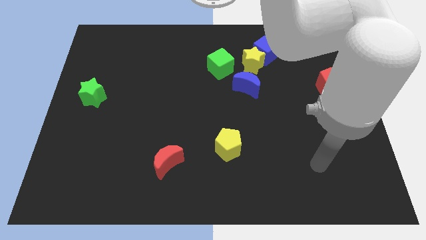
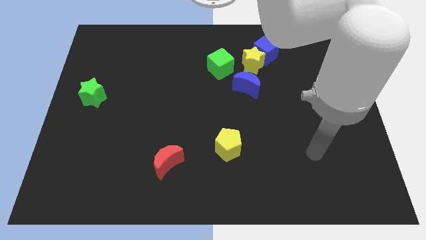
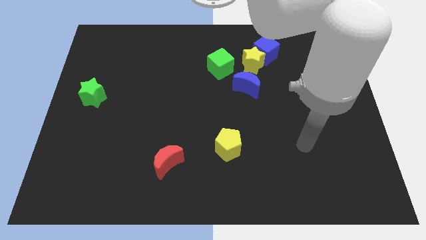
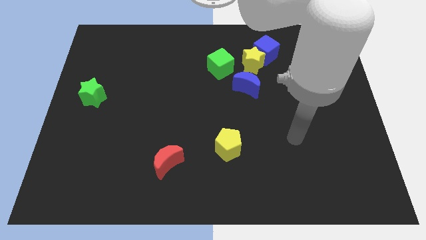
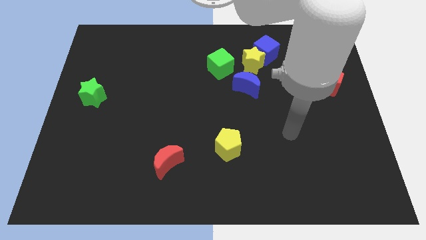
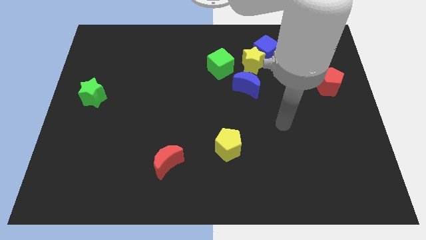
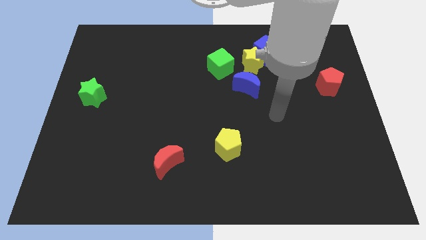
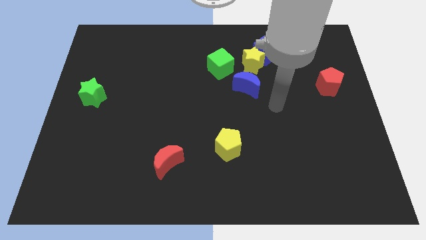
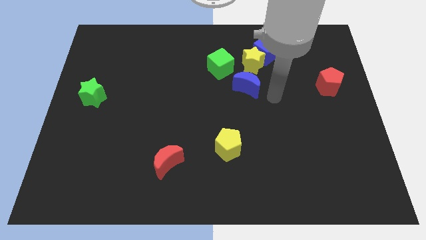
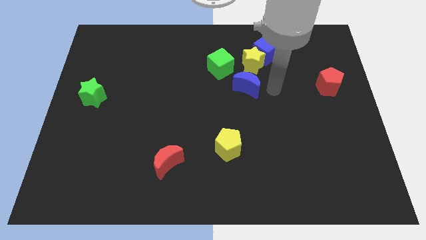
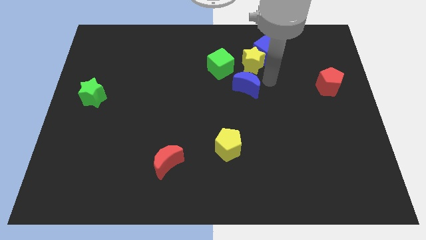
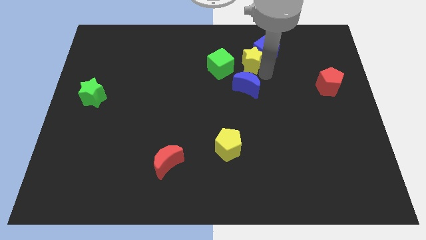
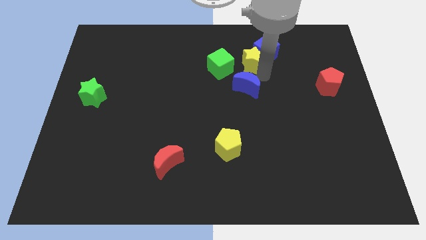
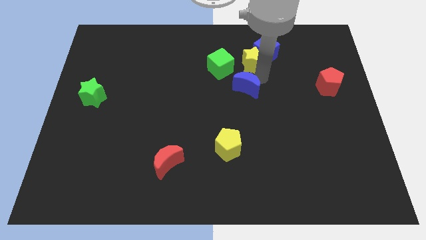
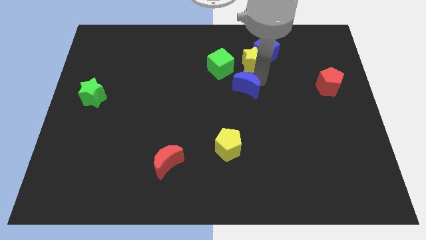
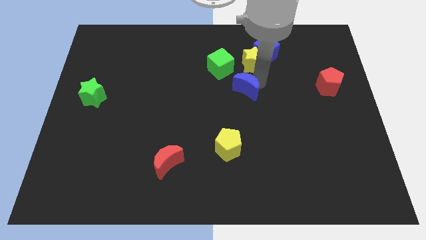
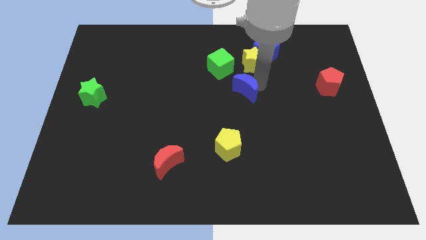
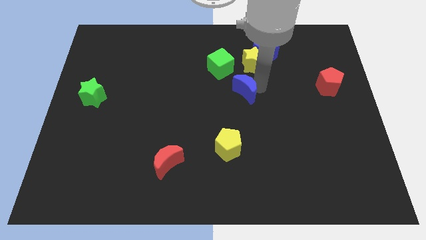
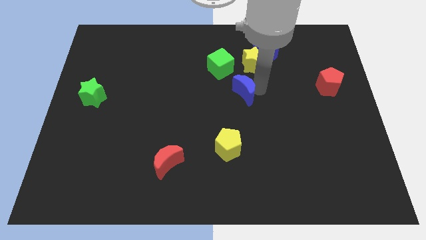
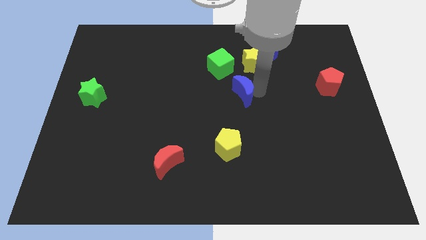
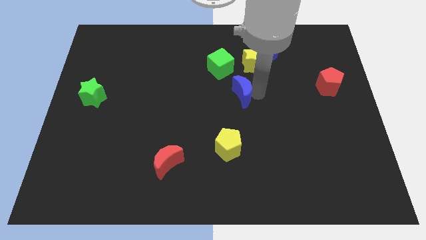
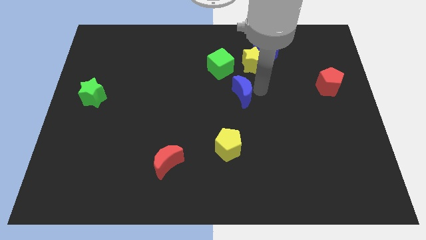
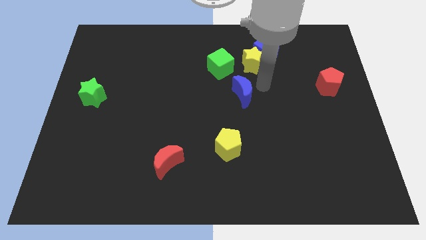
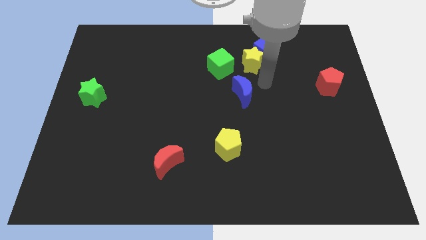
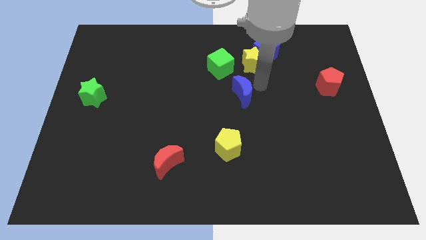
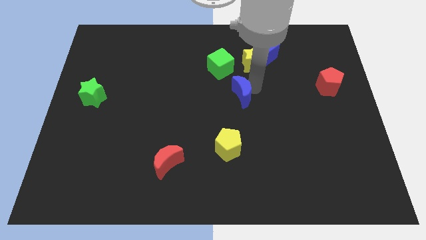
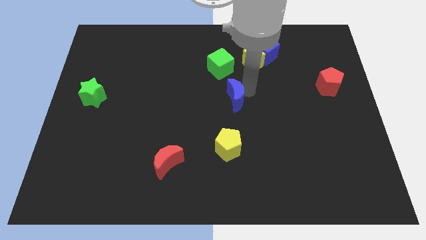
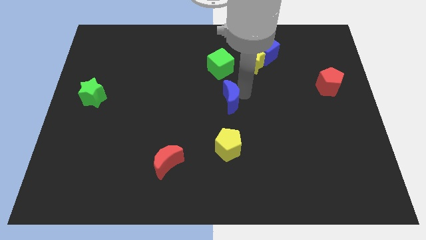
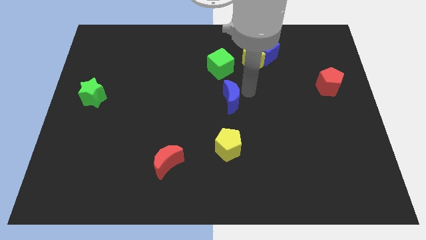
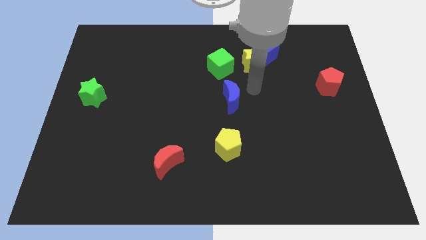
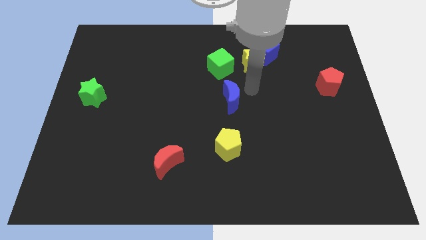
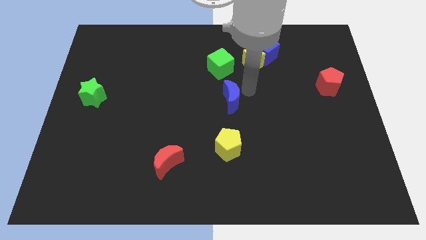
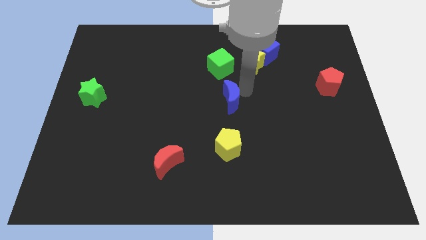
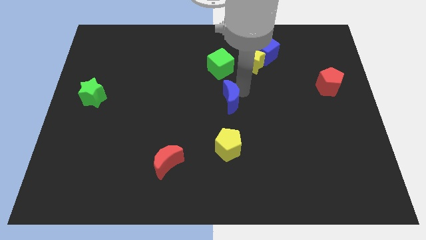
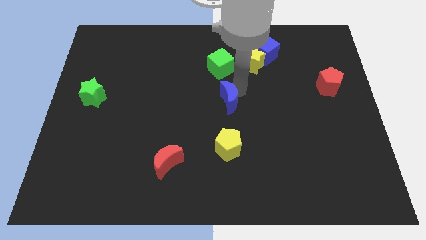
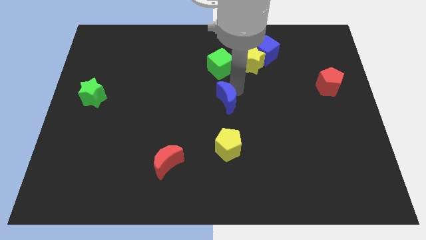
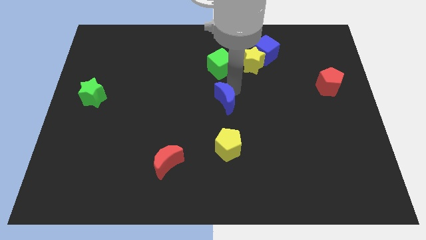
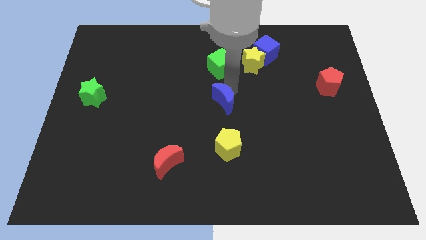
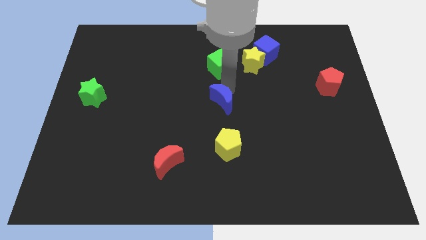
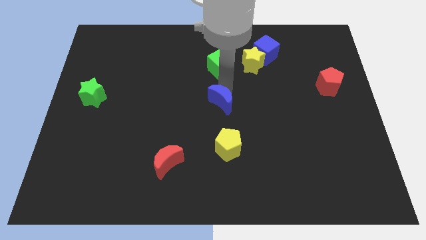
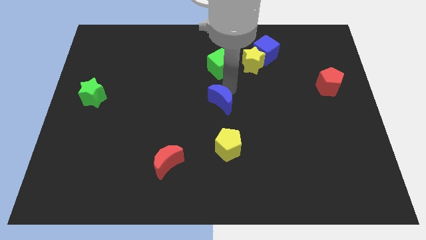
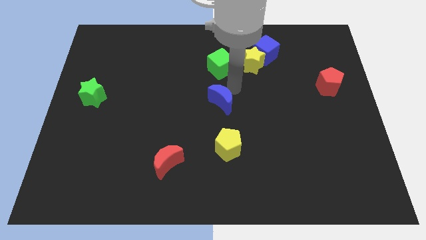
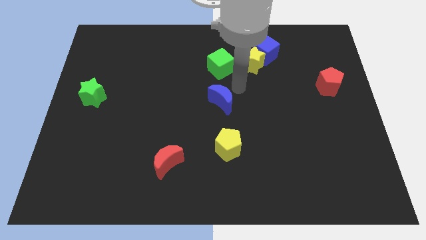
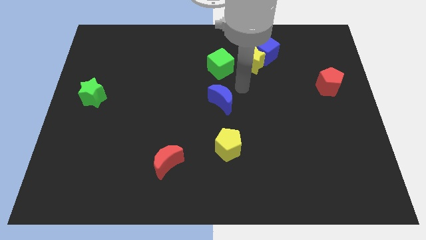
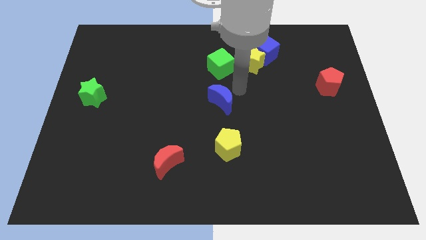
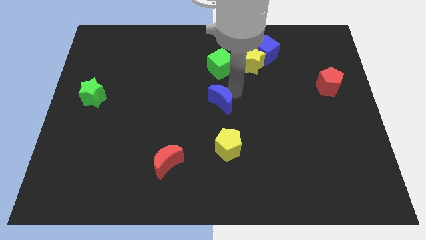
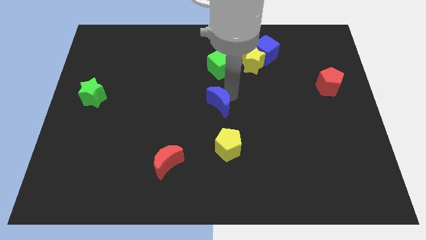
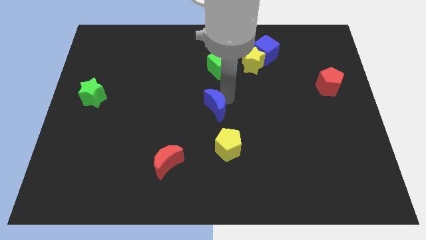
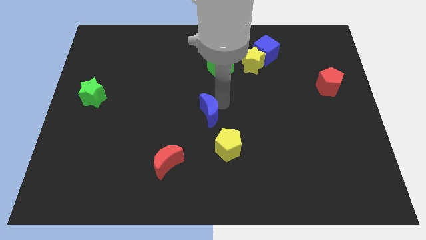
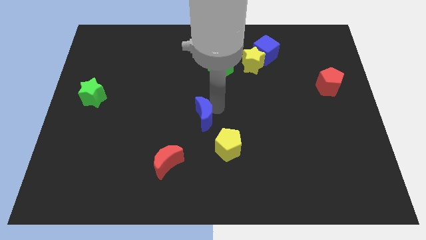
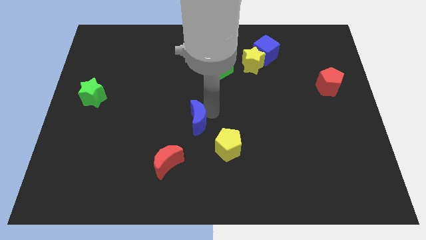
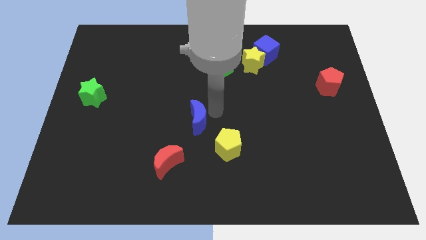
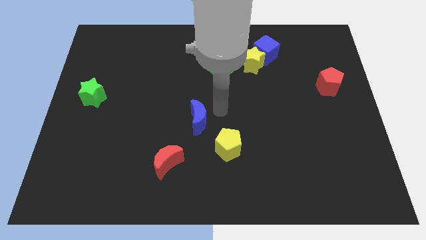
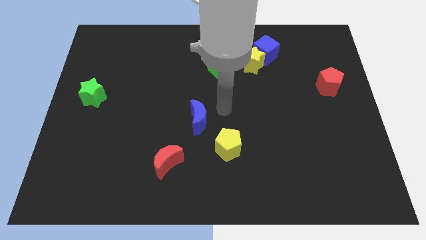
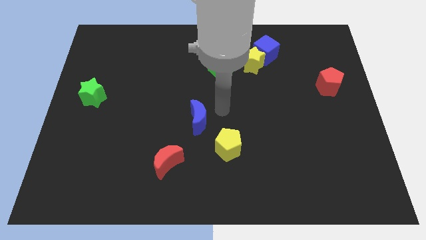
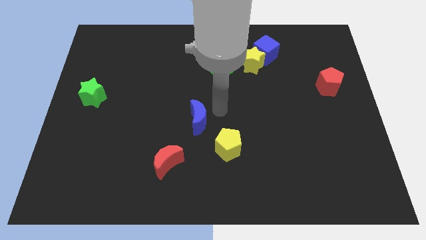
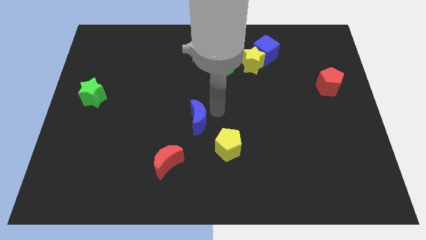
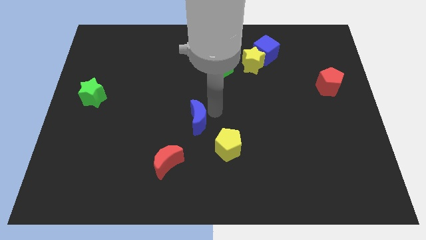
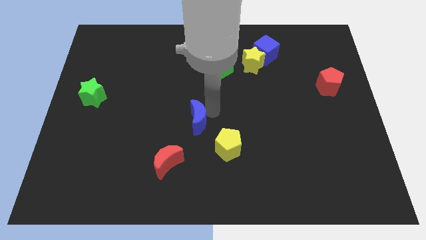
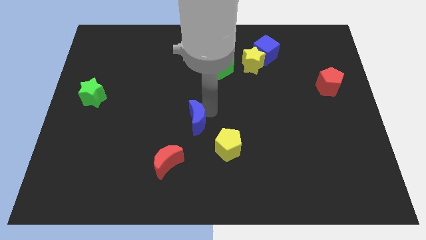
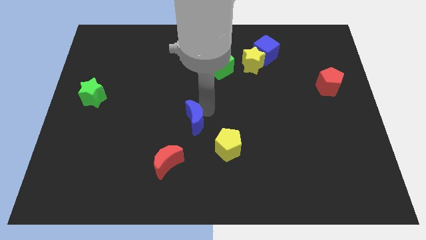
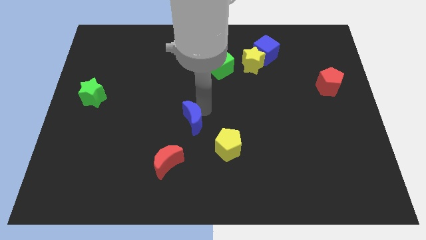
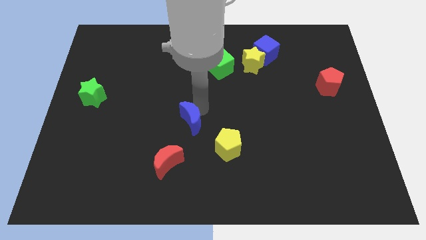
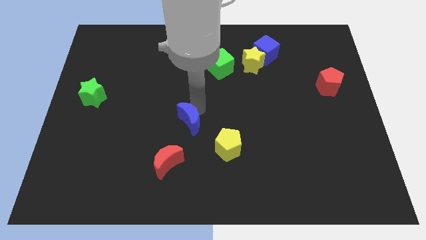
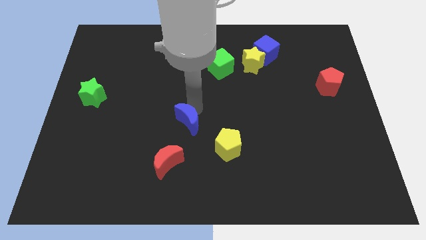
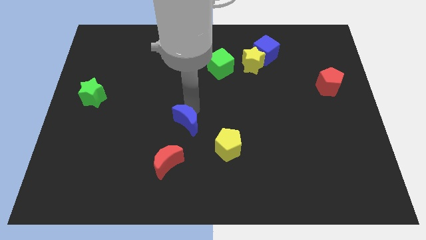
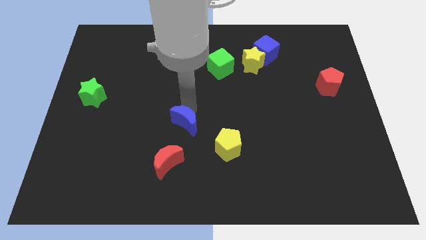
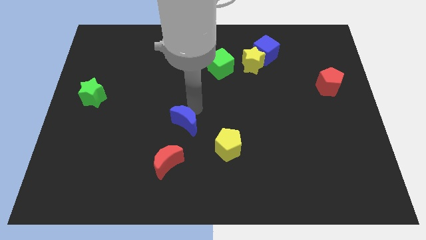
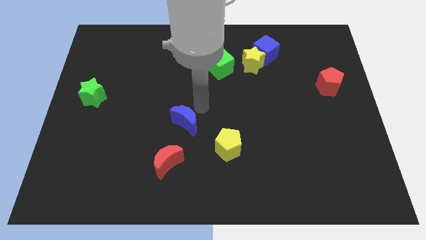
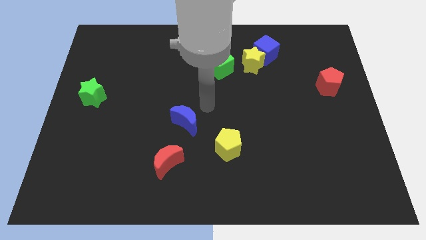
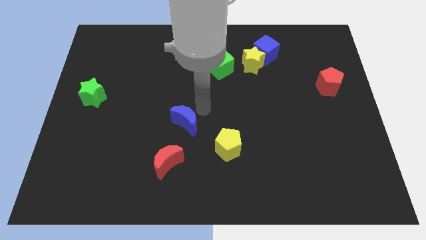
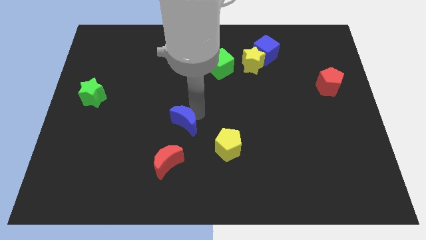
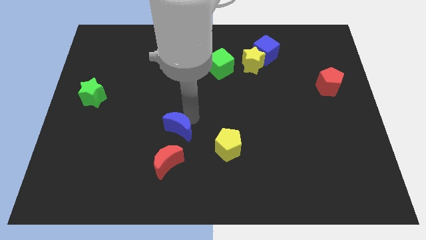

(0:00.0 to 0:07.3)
push the blue moon down and to the left diagonally

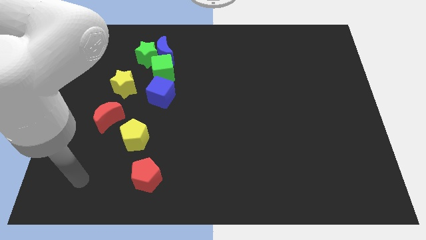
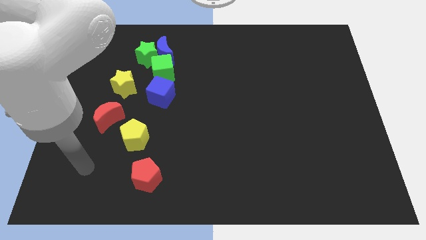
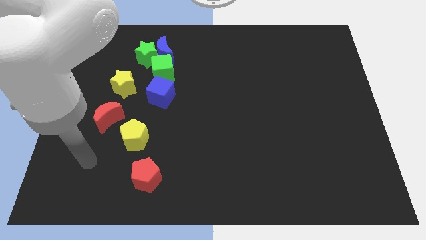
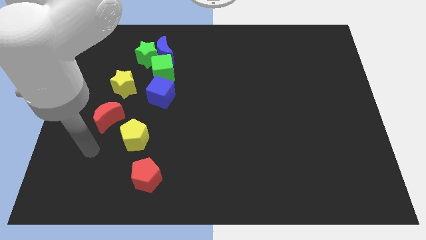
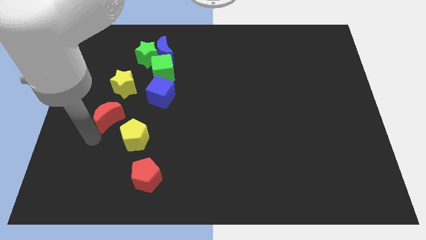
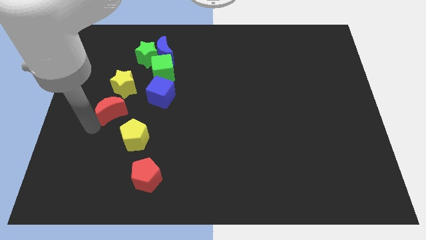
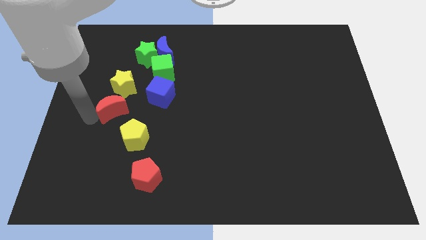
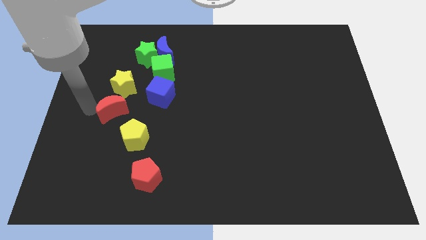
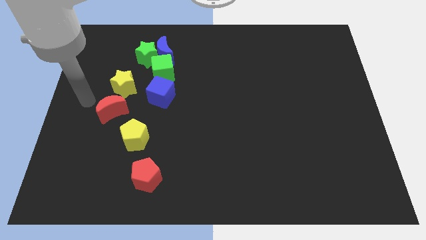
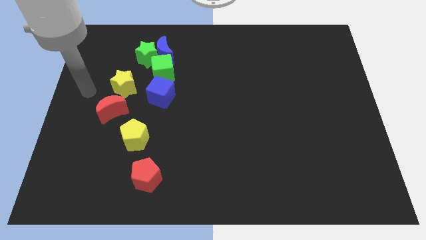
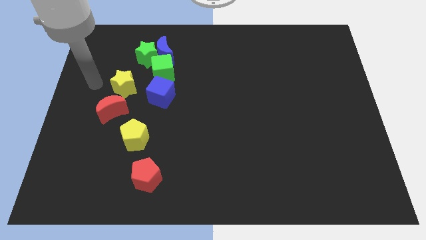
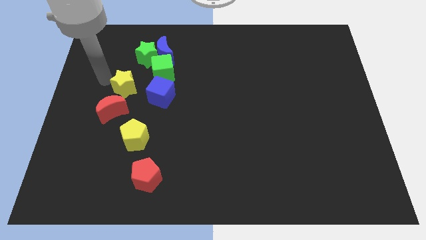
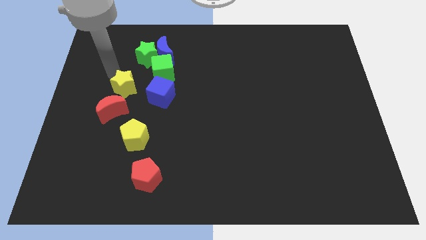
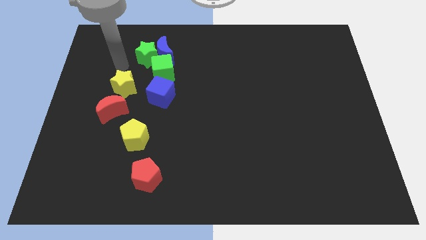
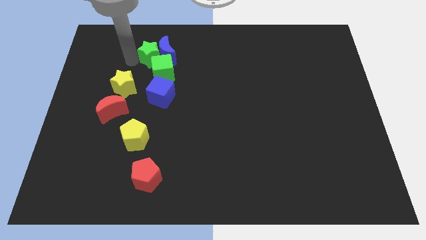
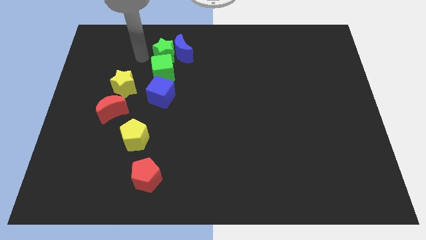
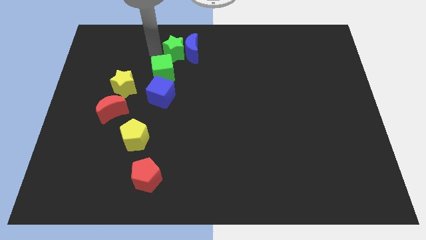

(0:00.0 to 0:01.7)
slightly slide the blue moon to the right
